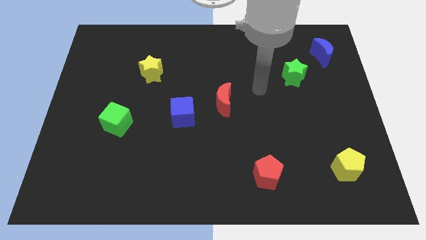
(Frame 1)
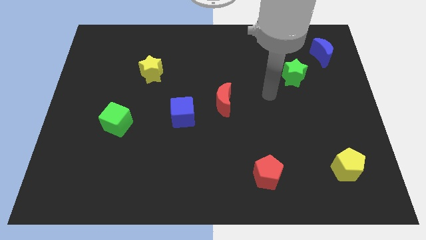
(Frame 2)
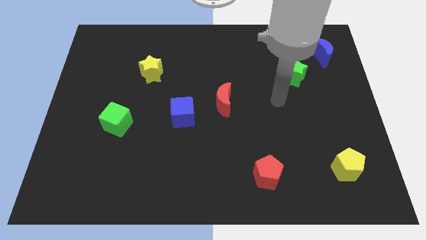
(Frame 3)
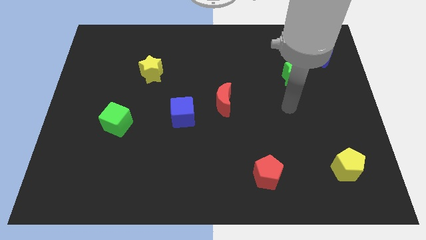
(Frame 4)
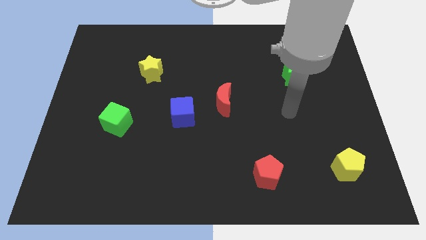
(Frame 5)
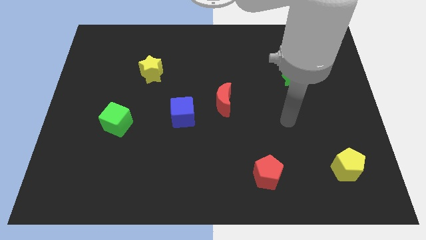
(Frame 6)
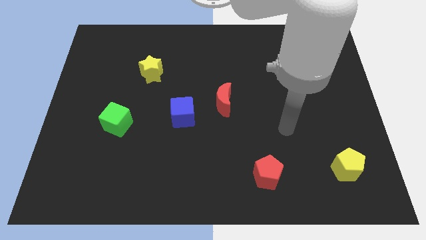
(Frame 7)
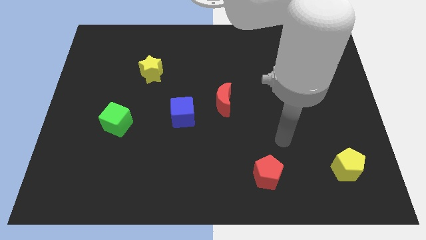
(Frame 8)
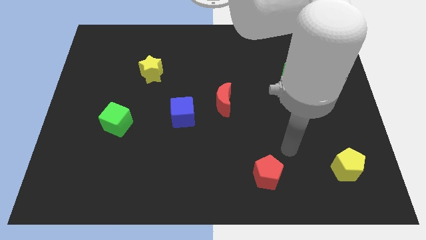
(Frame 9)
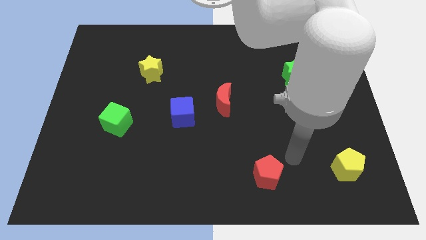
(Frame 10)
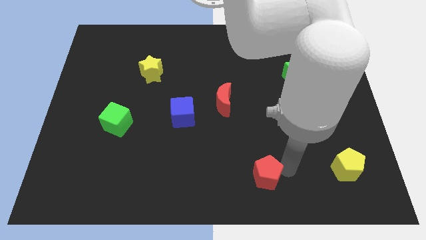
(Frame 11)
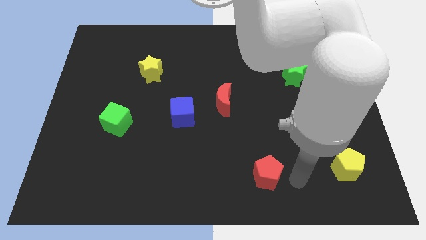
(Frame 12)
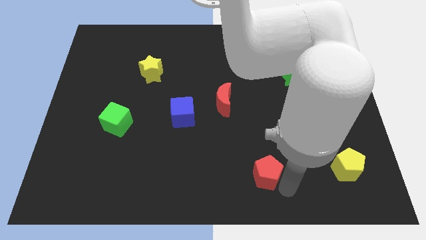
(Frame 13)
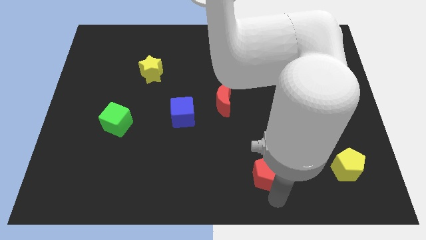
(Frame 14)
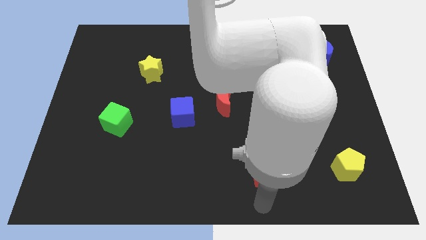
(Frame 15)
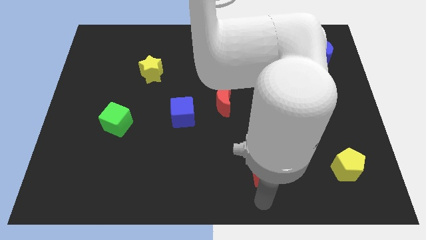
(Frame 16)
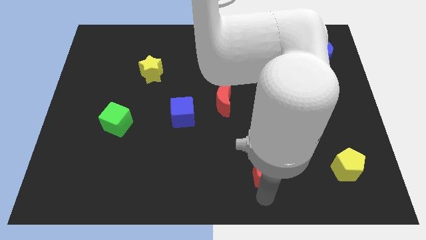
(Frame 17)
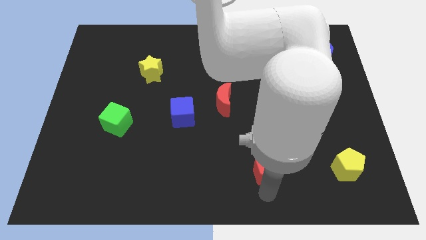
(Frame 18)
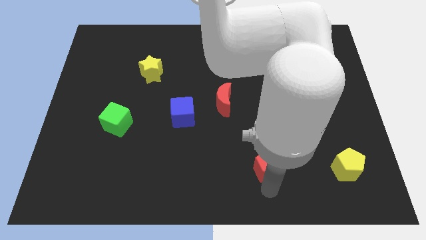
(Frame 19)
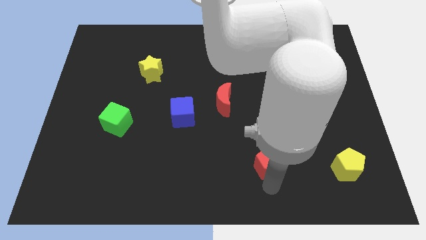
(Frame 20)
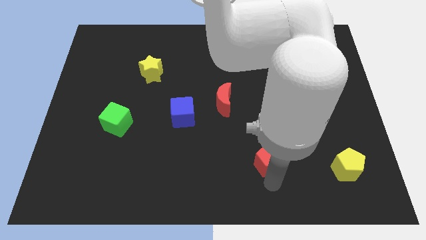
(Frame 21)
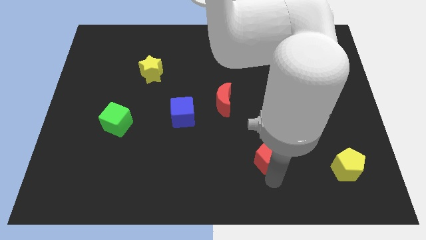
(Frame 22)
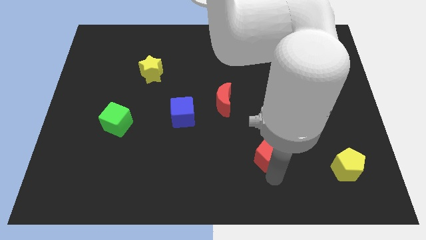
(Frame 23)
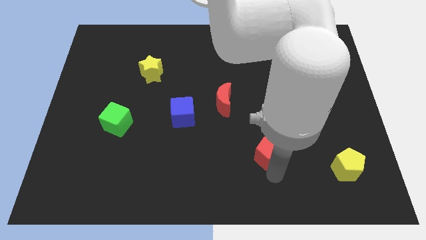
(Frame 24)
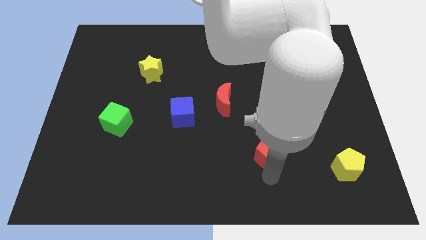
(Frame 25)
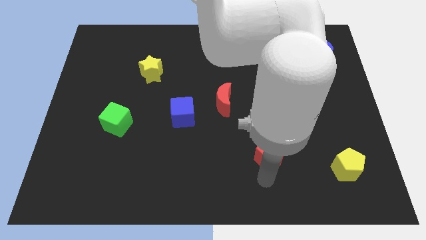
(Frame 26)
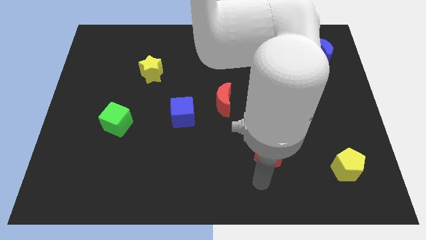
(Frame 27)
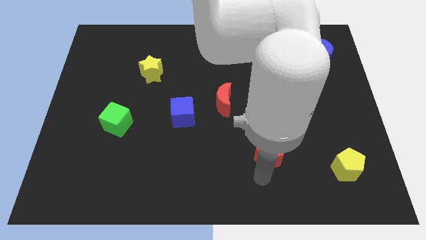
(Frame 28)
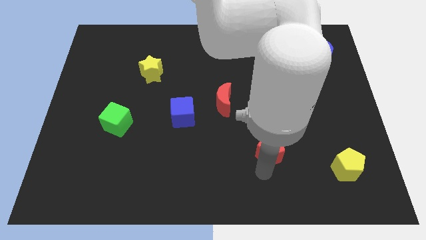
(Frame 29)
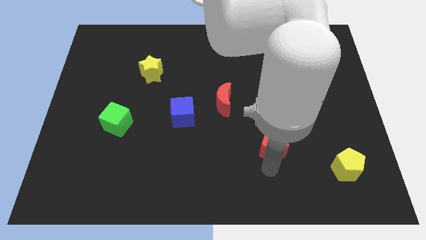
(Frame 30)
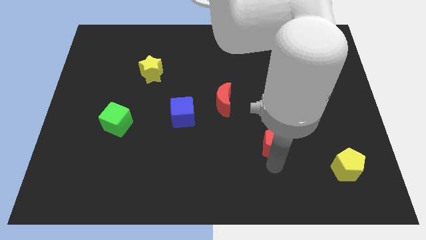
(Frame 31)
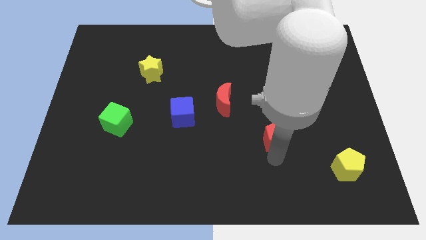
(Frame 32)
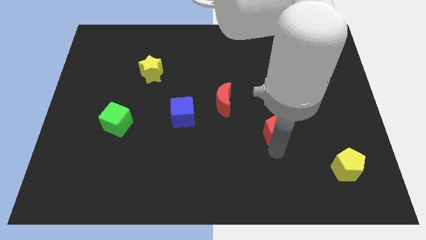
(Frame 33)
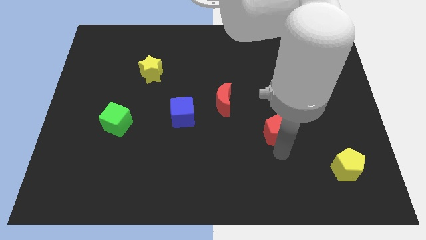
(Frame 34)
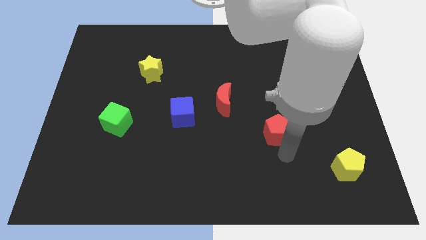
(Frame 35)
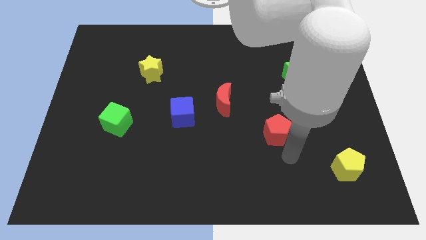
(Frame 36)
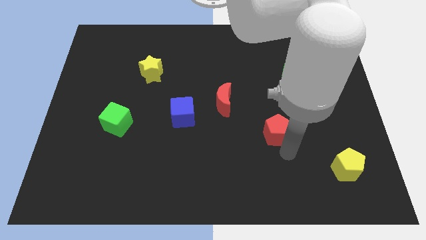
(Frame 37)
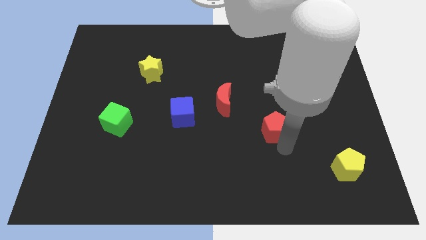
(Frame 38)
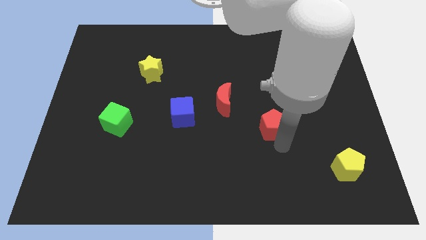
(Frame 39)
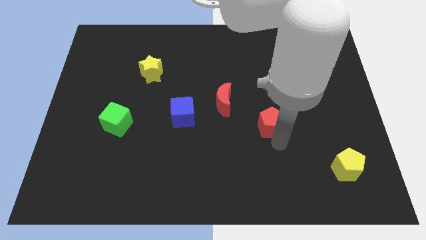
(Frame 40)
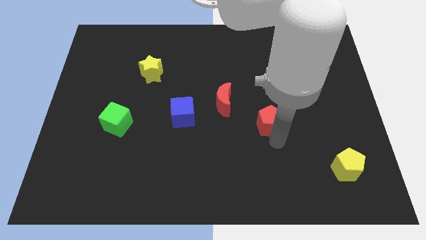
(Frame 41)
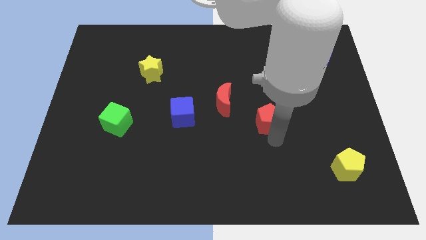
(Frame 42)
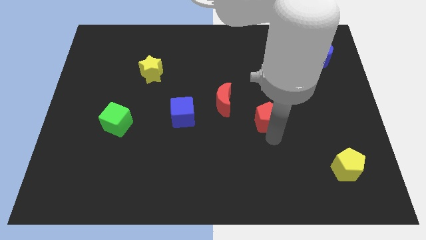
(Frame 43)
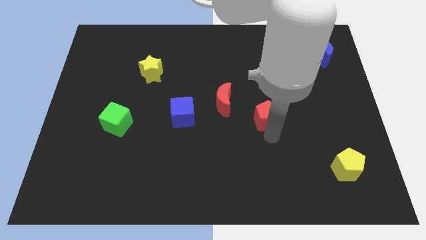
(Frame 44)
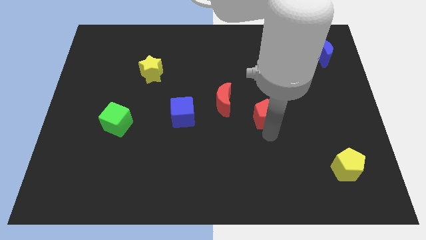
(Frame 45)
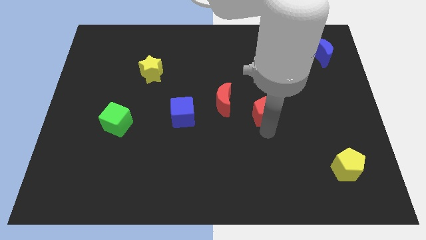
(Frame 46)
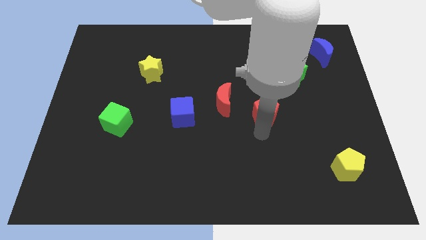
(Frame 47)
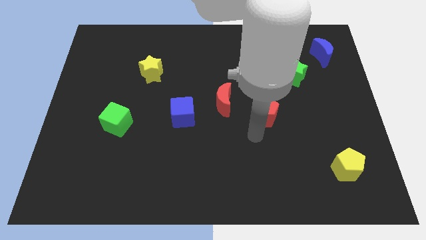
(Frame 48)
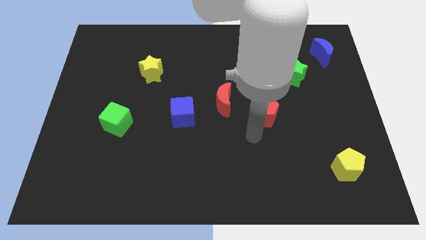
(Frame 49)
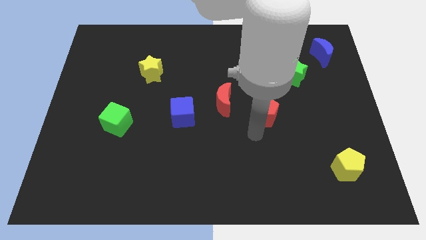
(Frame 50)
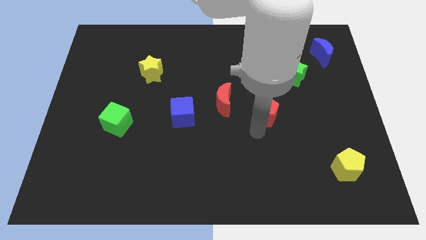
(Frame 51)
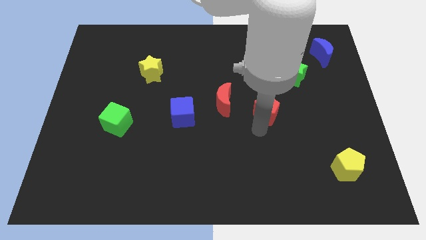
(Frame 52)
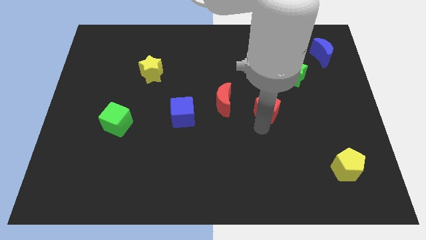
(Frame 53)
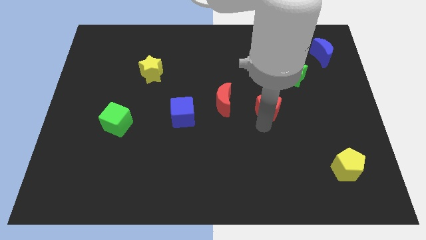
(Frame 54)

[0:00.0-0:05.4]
slide the red pentagon diagonally down and to the left of the green star

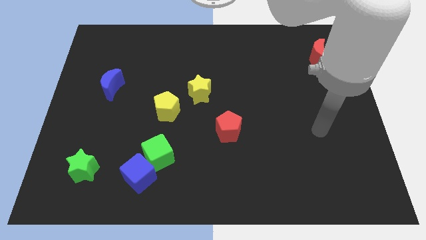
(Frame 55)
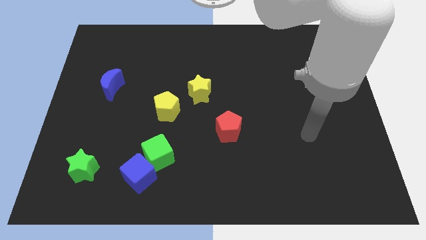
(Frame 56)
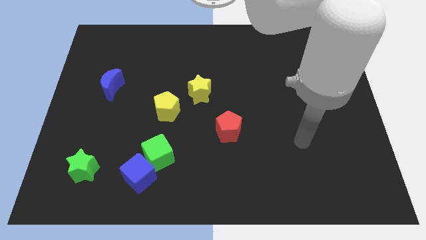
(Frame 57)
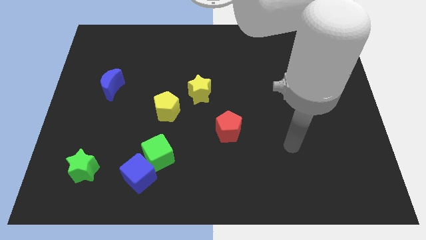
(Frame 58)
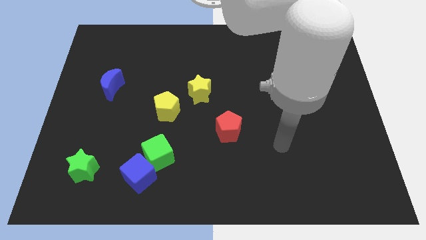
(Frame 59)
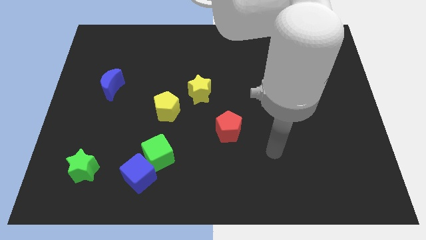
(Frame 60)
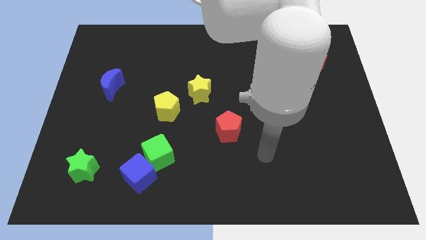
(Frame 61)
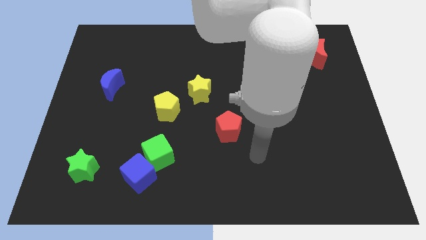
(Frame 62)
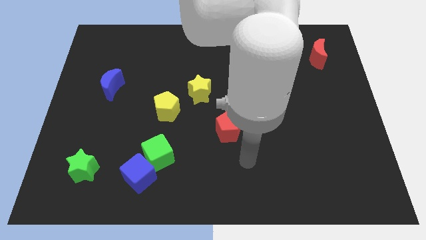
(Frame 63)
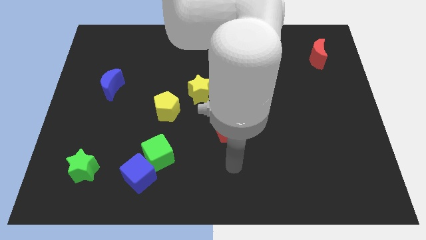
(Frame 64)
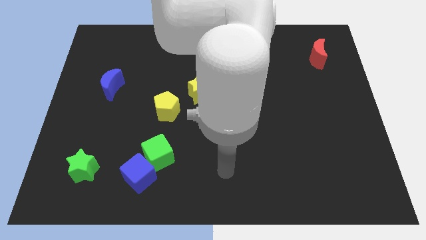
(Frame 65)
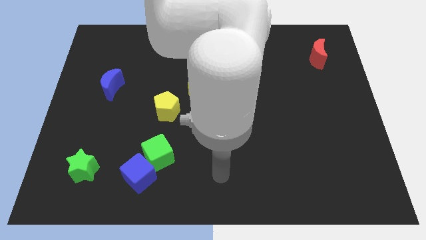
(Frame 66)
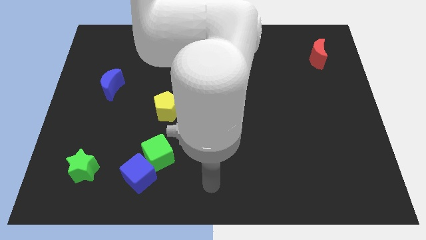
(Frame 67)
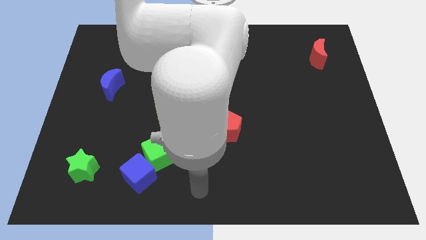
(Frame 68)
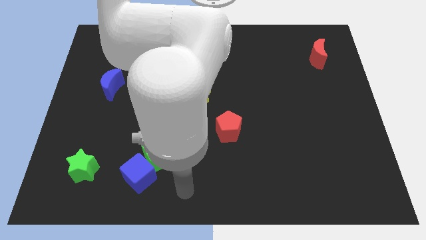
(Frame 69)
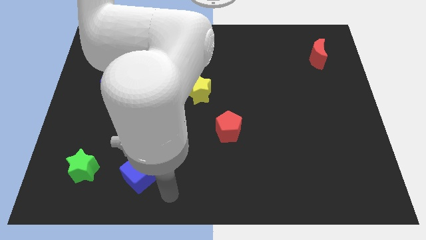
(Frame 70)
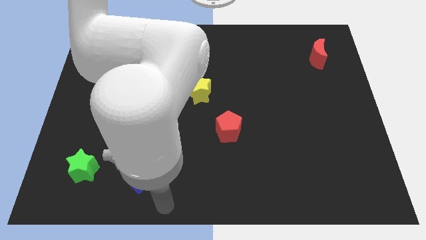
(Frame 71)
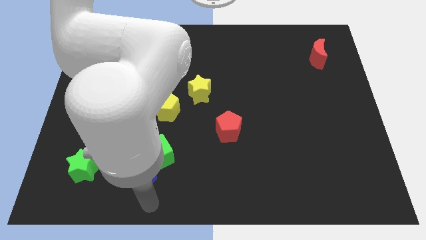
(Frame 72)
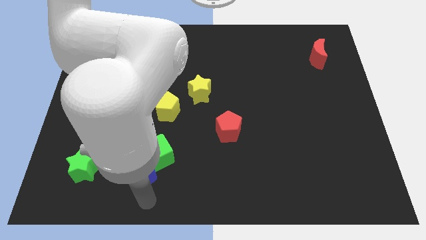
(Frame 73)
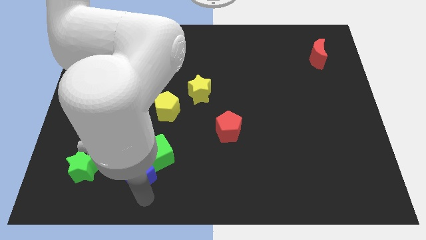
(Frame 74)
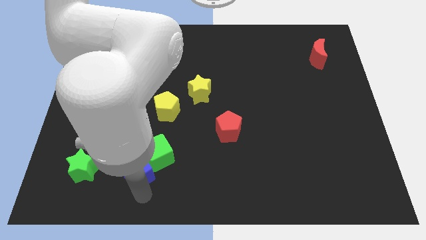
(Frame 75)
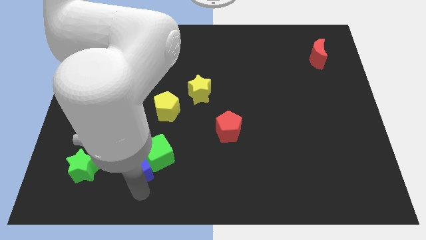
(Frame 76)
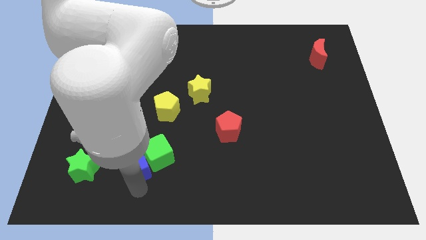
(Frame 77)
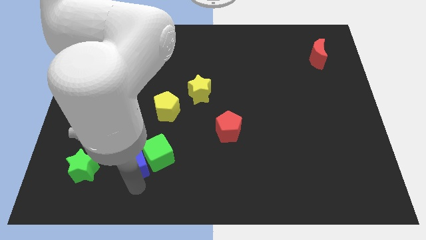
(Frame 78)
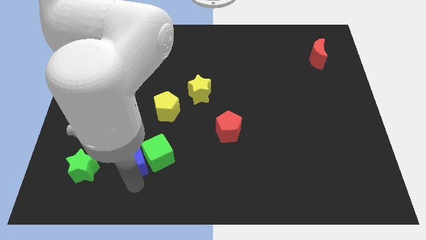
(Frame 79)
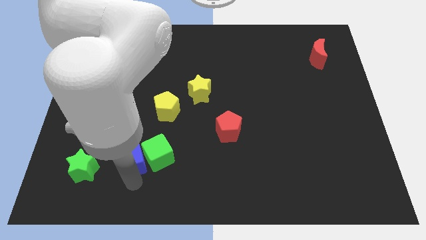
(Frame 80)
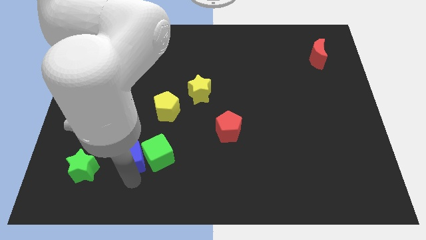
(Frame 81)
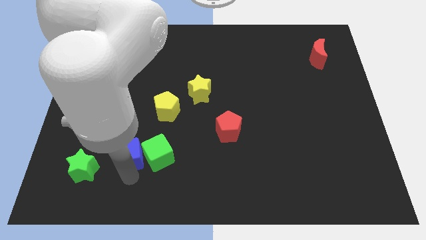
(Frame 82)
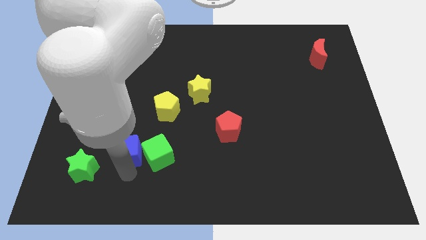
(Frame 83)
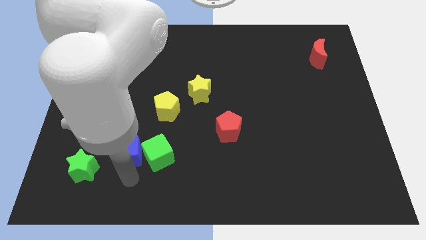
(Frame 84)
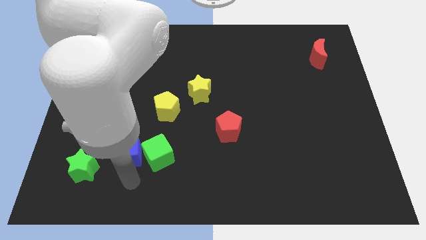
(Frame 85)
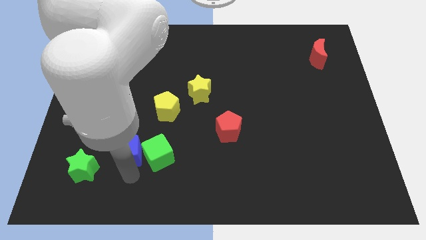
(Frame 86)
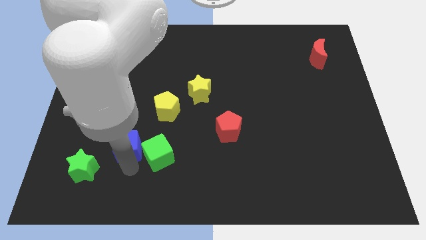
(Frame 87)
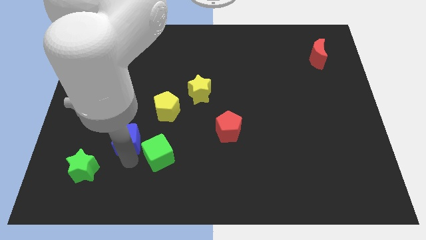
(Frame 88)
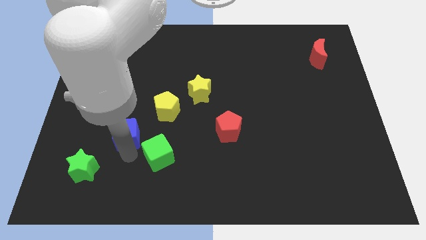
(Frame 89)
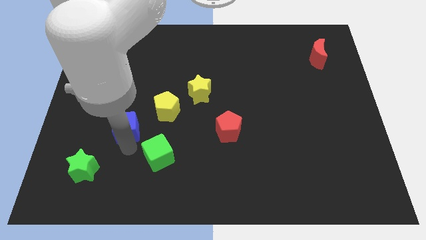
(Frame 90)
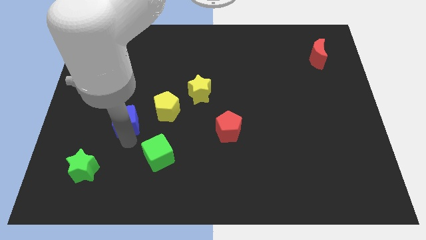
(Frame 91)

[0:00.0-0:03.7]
slide the blue cube to the left of the yellow pentagon
